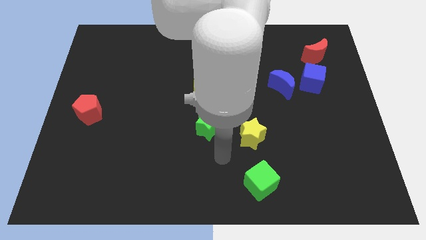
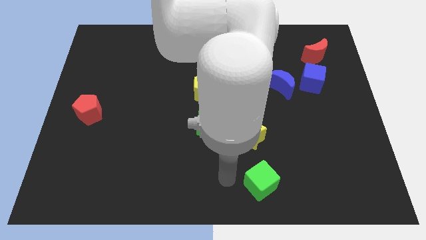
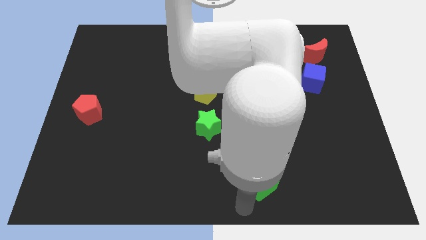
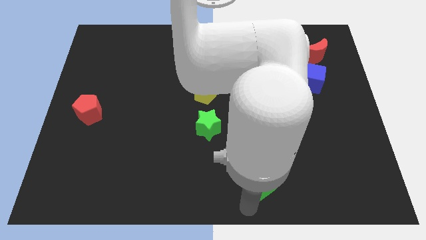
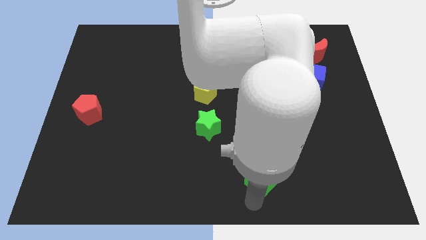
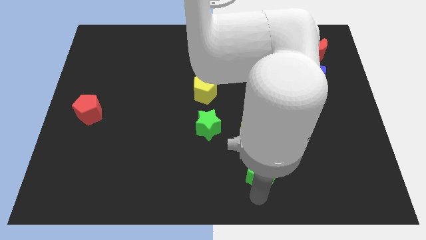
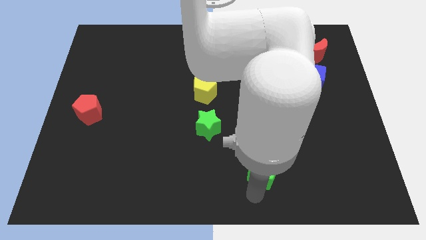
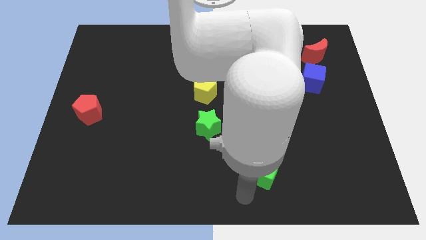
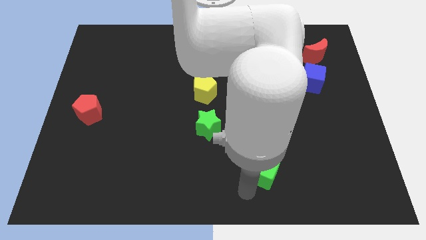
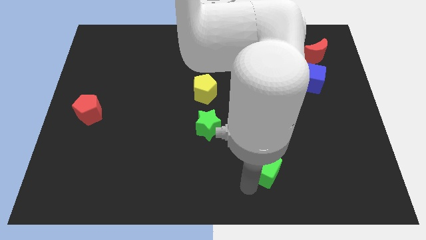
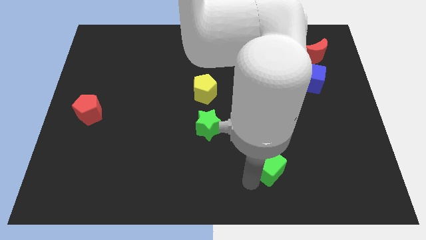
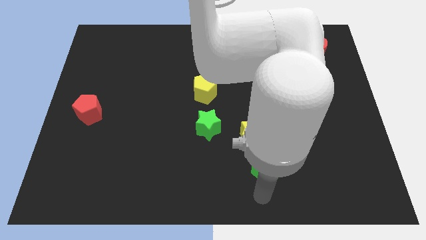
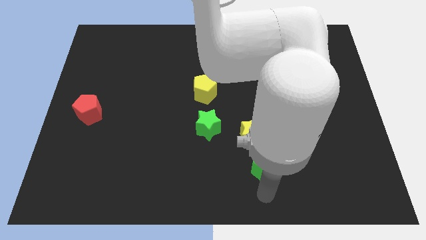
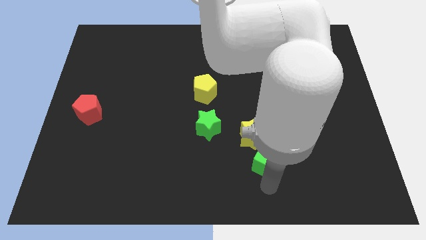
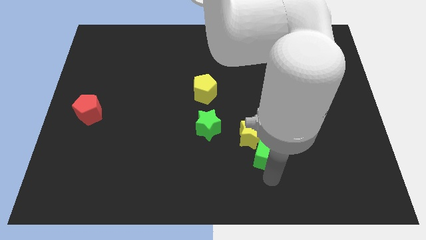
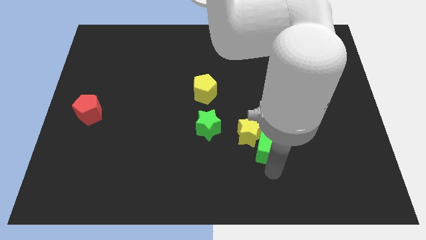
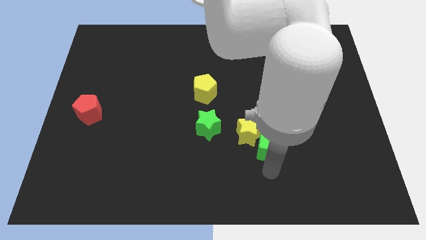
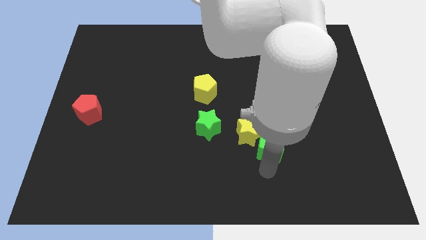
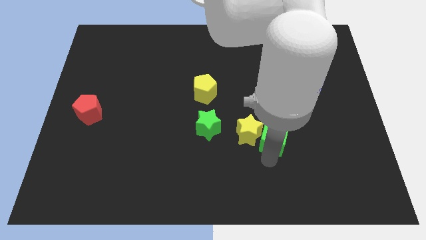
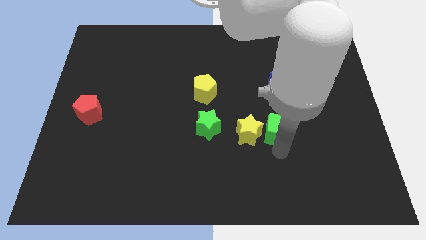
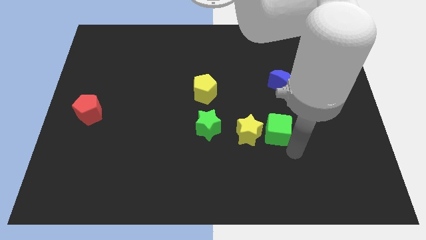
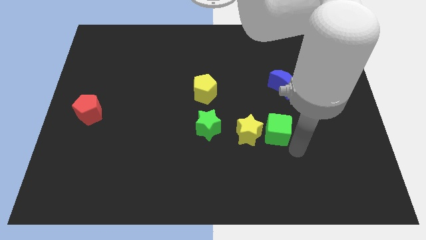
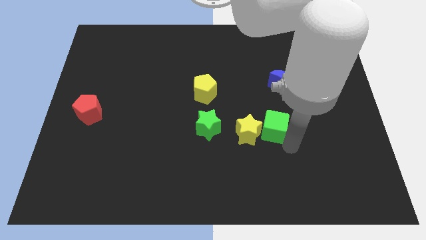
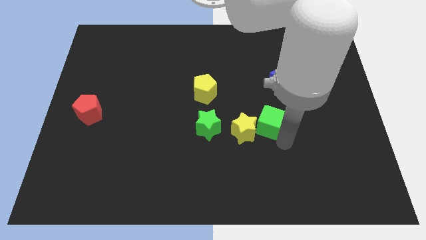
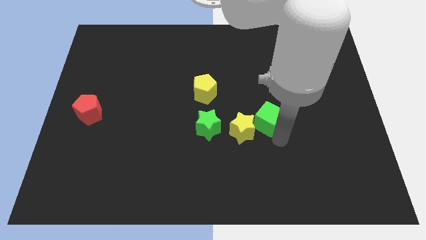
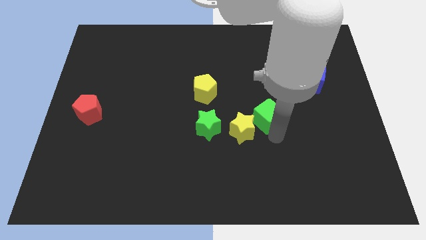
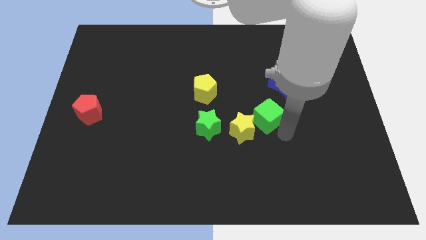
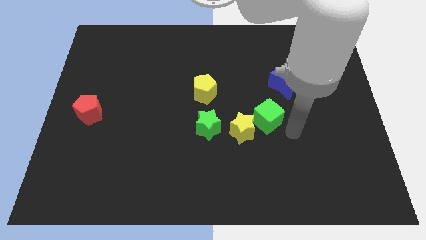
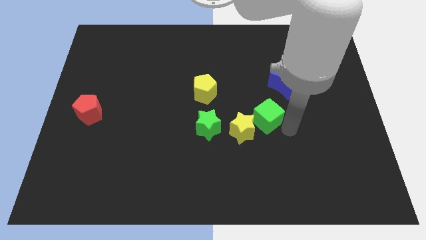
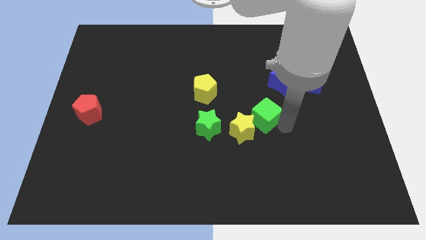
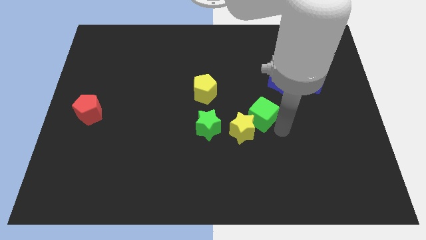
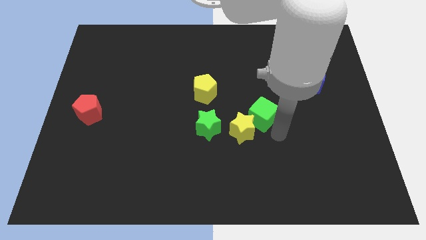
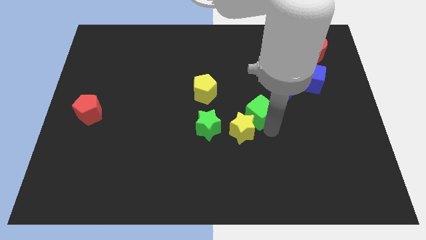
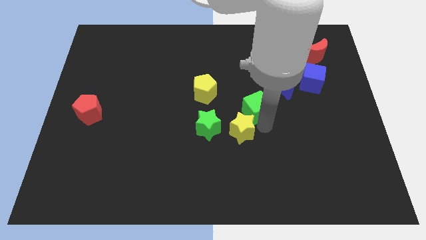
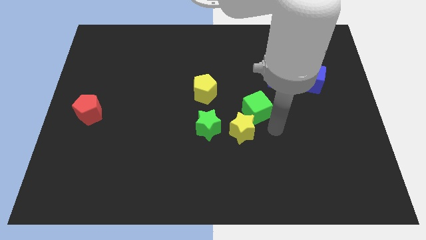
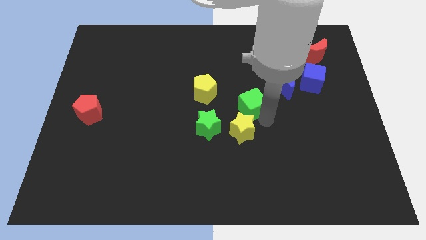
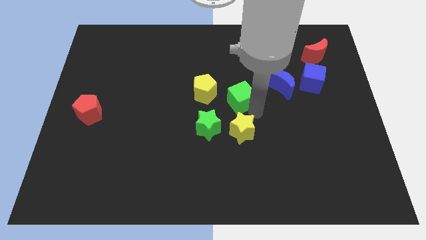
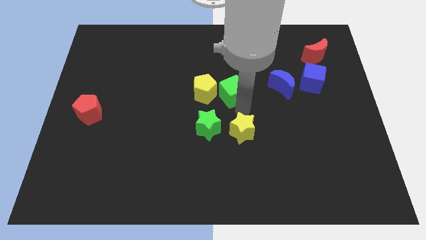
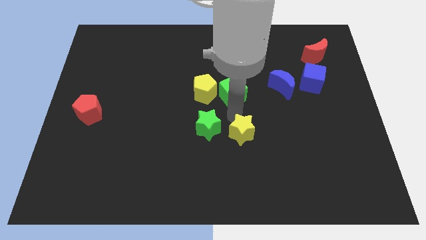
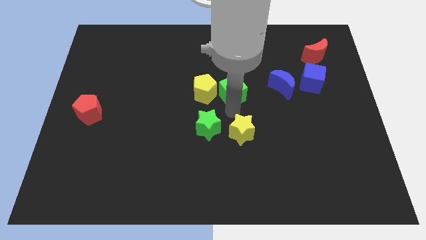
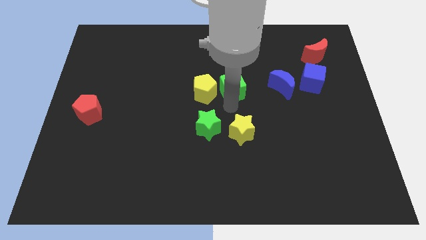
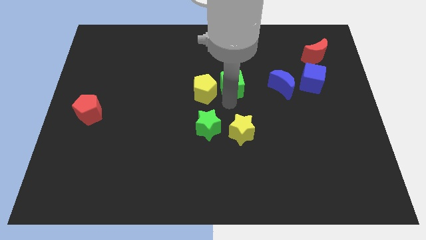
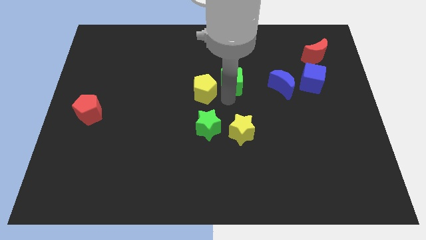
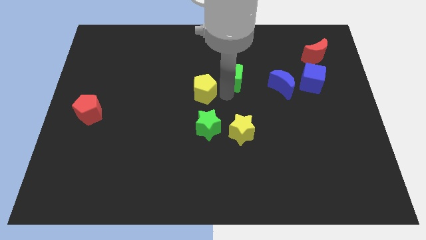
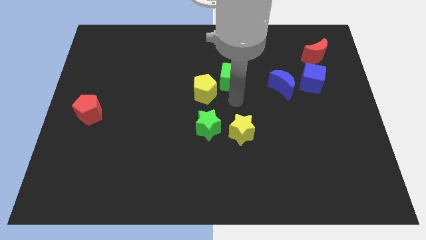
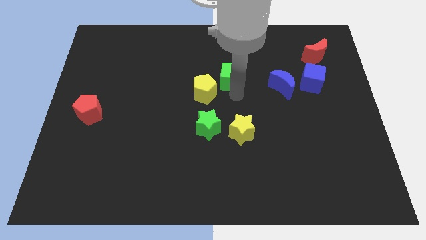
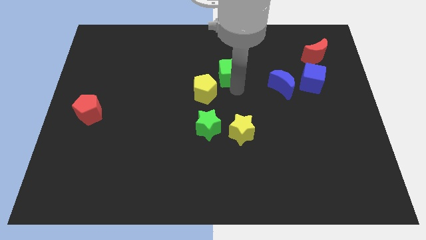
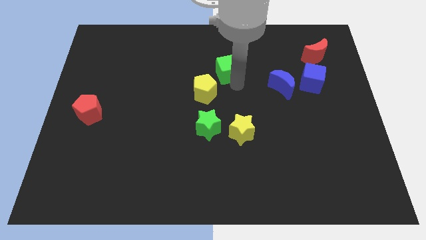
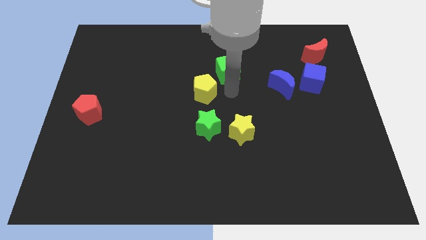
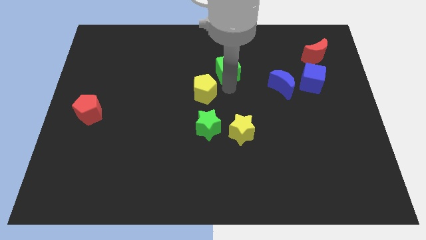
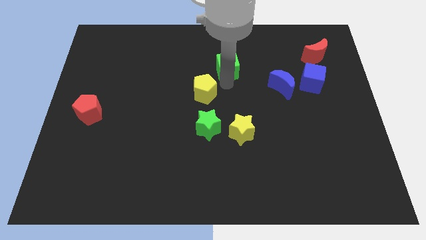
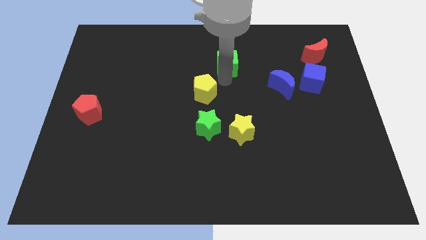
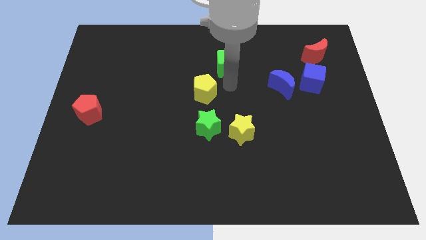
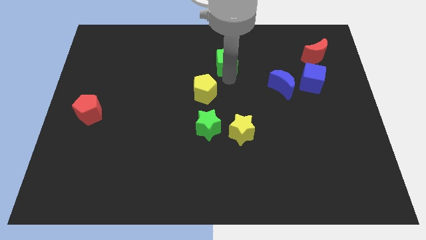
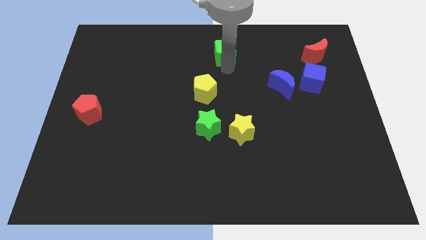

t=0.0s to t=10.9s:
move the green cube to the towards your base

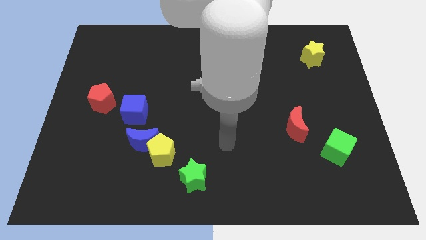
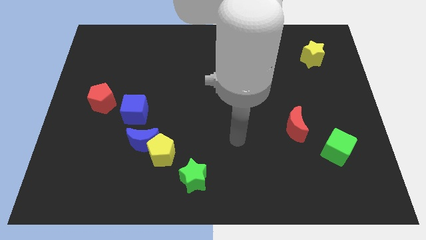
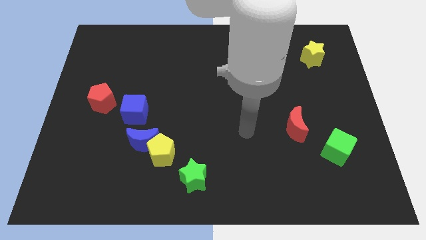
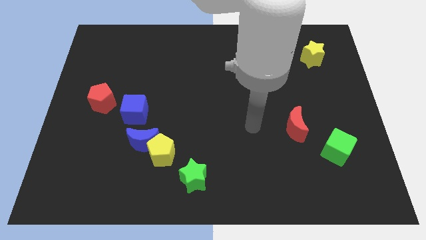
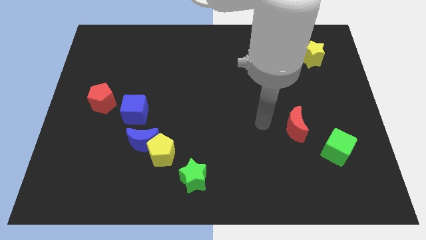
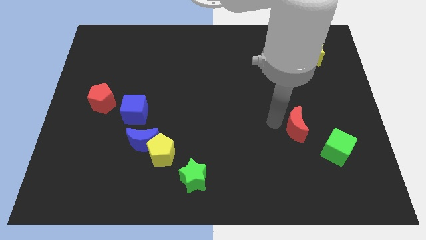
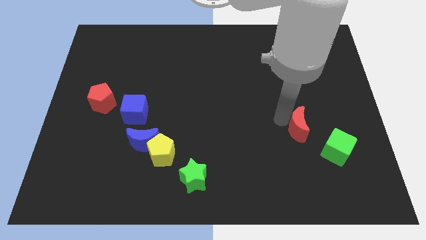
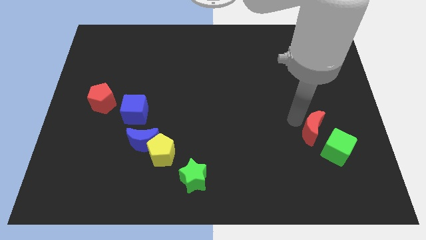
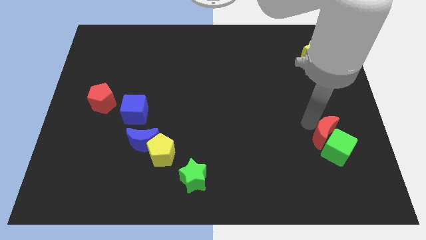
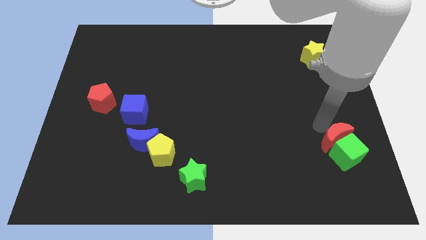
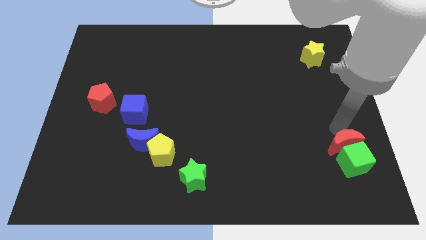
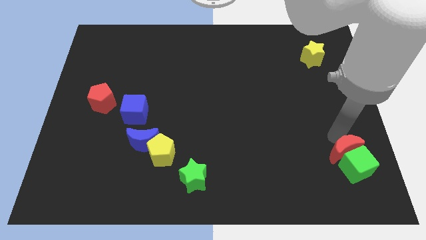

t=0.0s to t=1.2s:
put the green cube to the bottom right

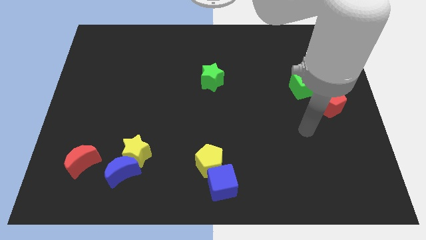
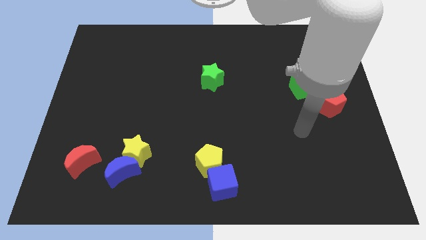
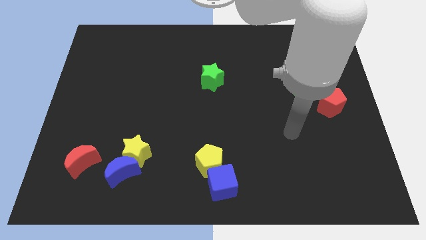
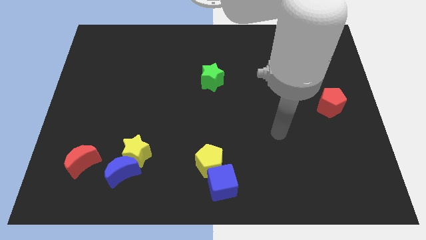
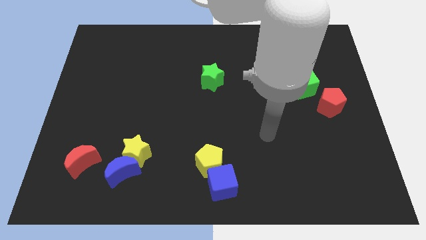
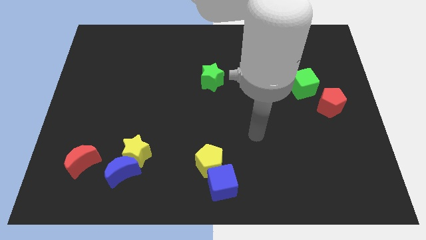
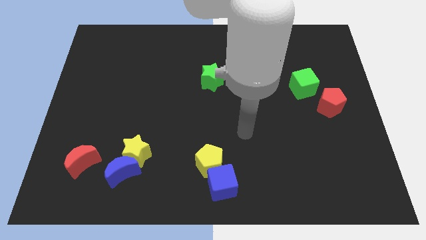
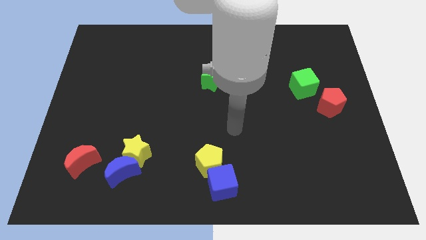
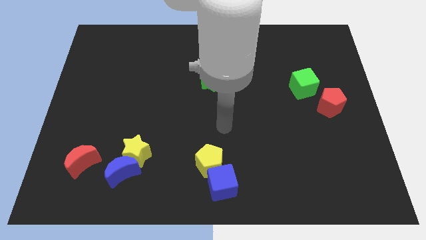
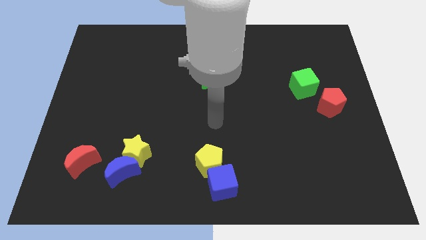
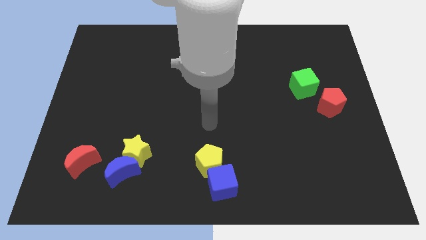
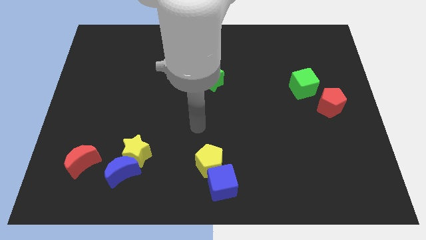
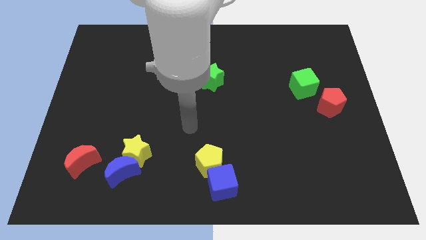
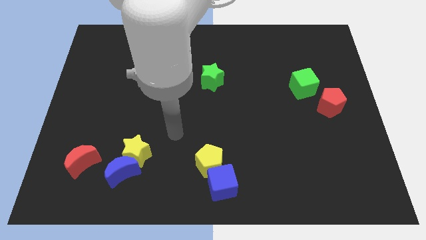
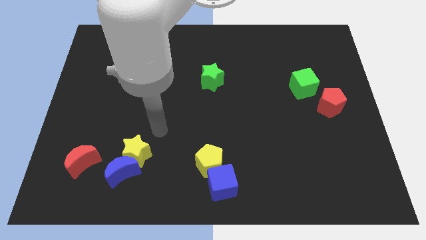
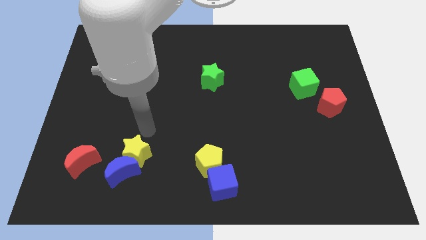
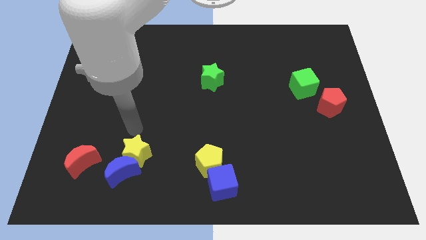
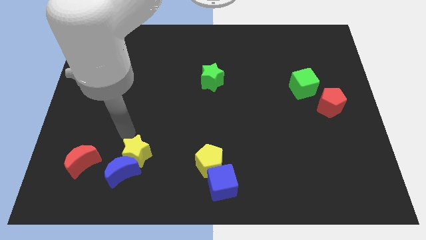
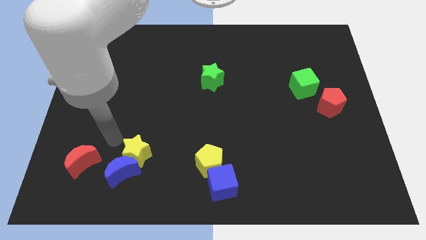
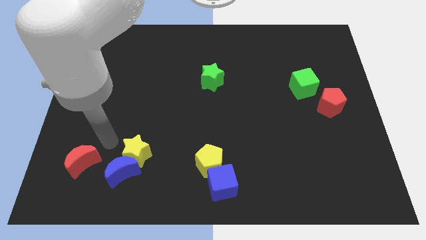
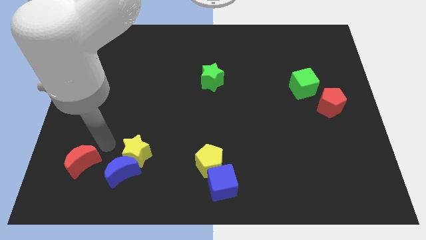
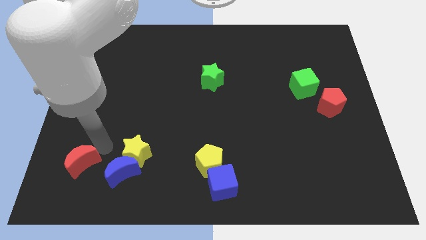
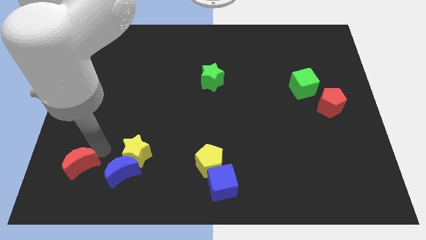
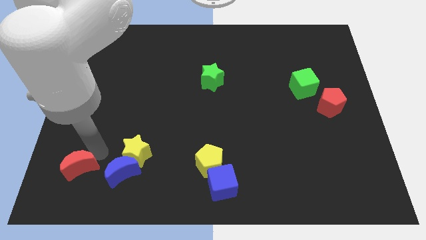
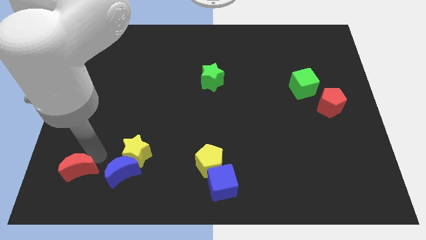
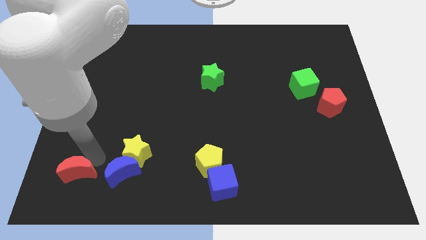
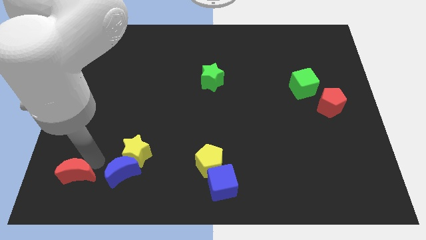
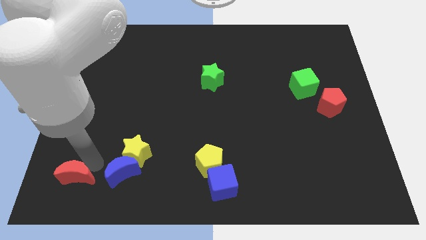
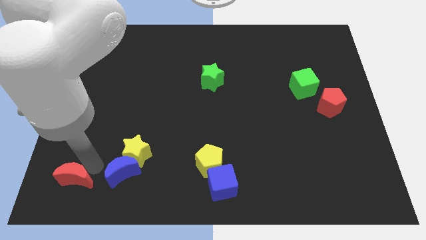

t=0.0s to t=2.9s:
move the red moon to the lower left corner
